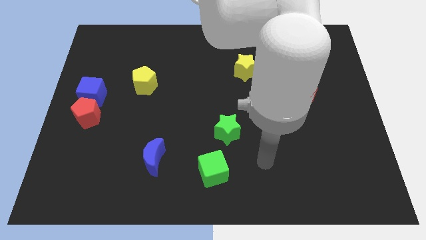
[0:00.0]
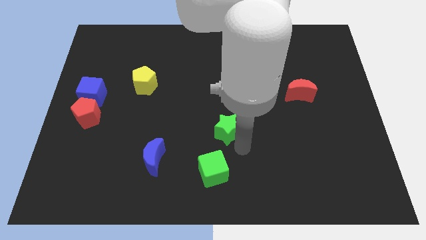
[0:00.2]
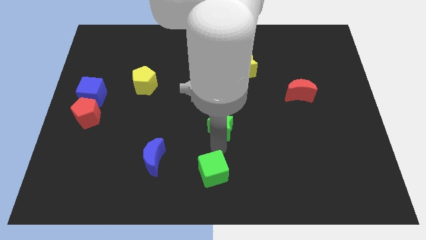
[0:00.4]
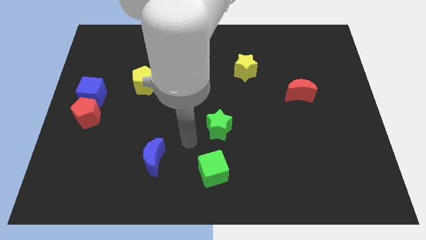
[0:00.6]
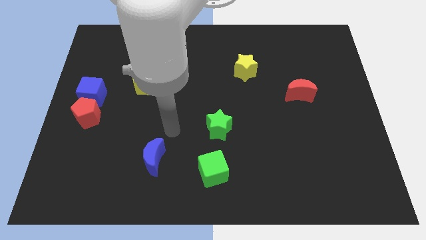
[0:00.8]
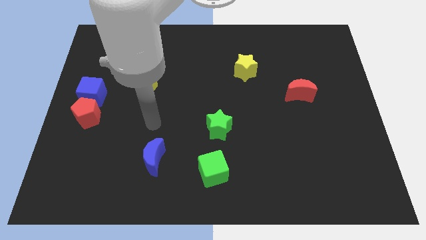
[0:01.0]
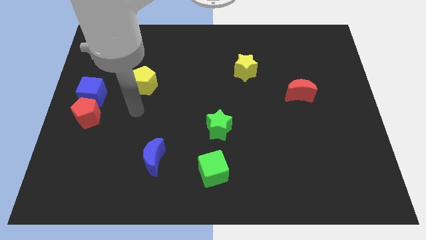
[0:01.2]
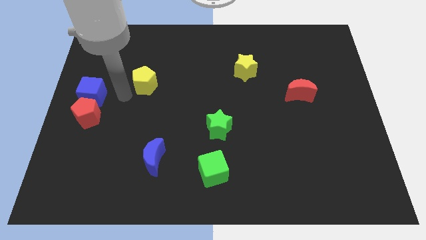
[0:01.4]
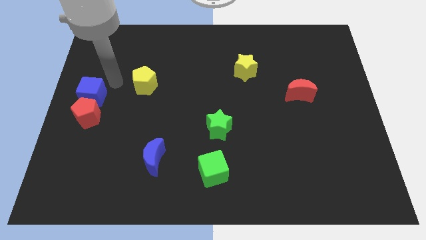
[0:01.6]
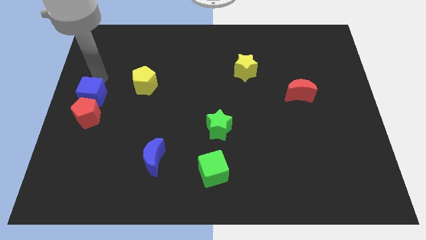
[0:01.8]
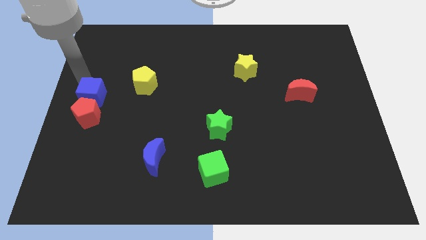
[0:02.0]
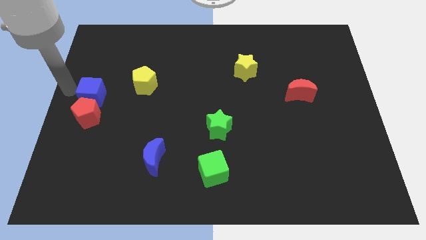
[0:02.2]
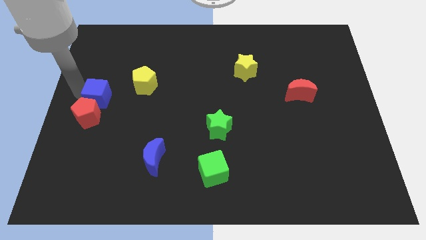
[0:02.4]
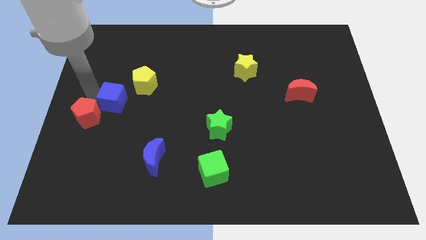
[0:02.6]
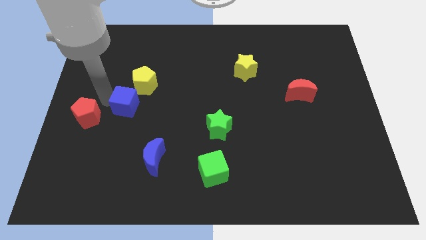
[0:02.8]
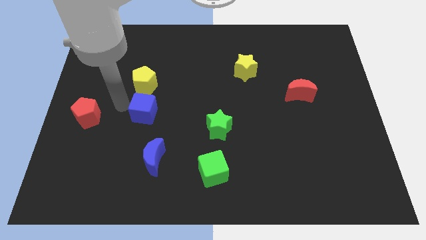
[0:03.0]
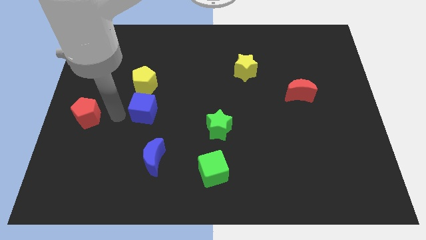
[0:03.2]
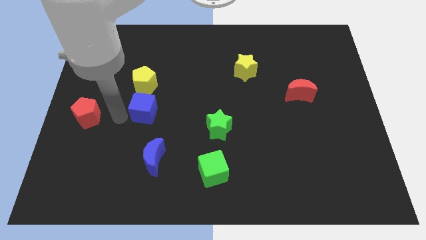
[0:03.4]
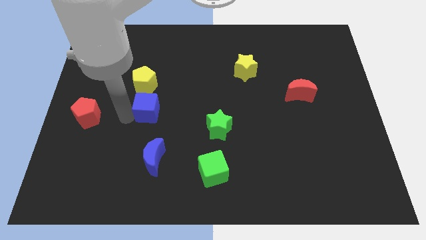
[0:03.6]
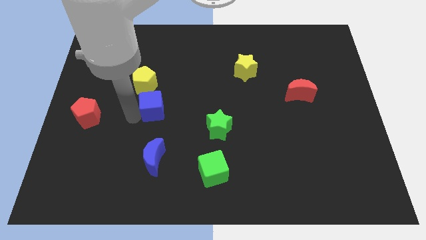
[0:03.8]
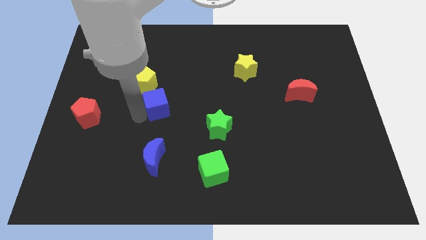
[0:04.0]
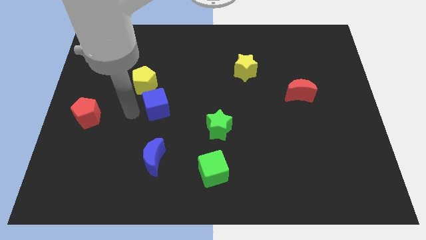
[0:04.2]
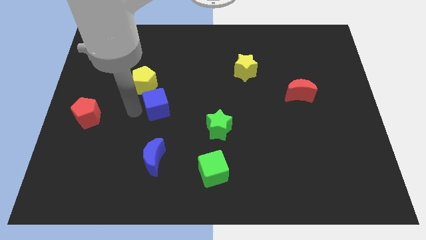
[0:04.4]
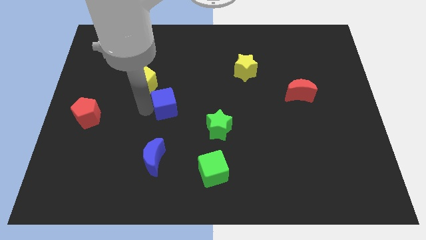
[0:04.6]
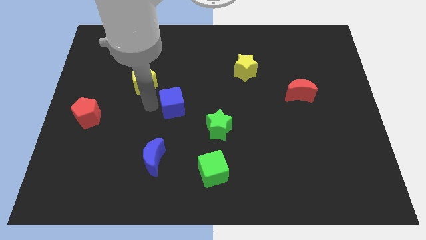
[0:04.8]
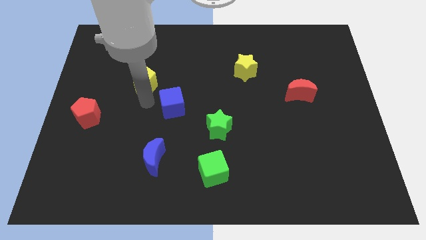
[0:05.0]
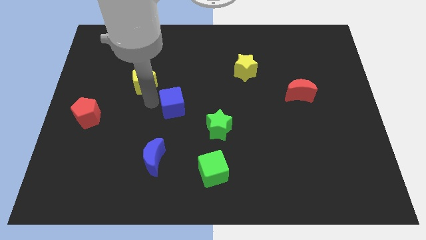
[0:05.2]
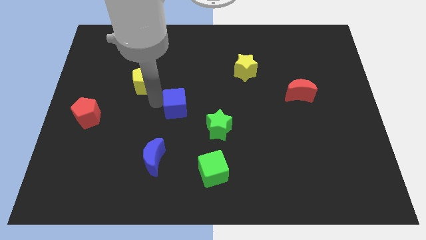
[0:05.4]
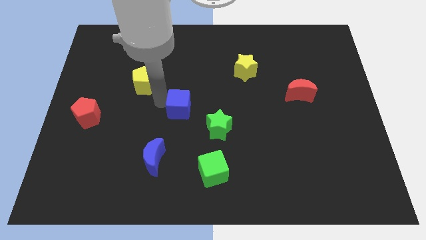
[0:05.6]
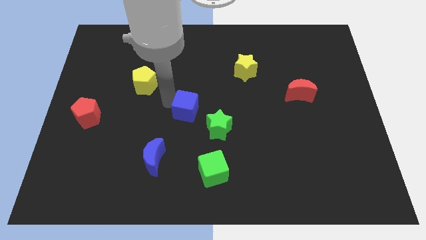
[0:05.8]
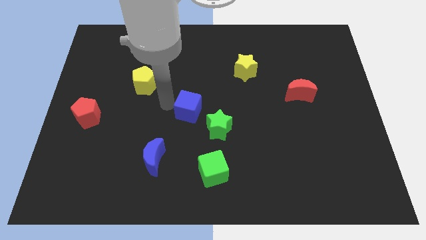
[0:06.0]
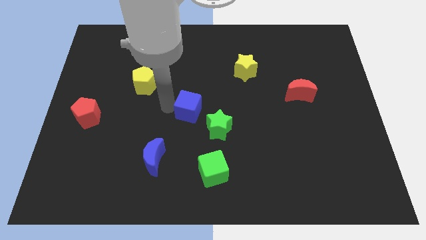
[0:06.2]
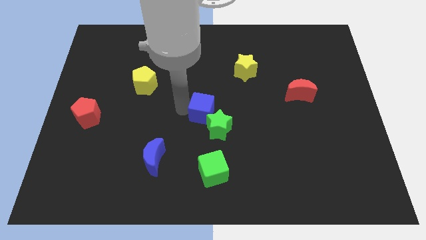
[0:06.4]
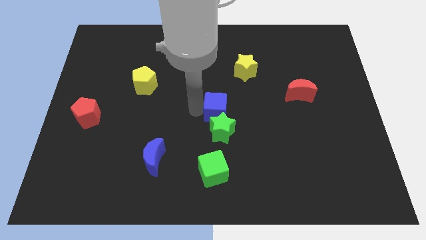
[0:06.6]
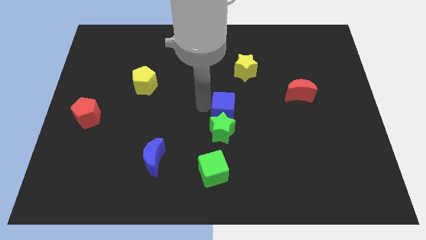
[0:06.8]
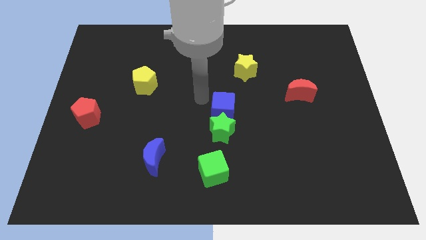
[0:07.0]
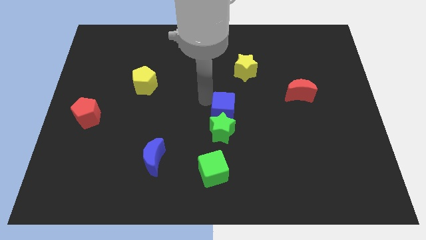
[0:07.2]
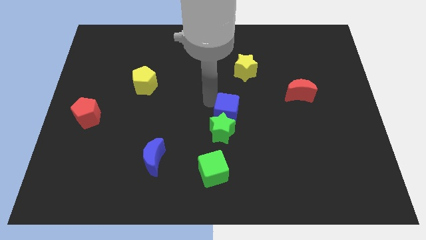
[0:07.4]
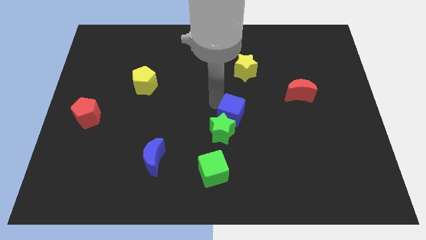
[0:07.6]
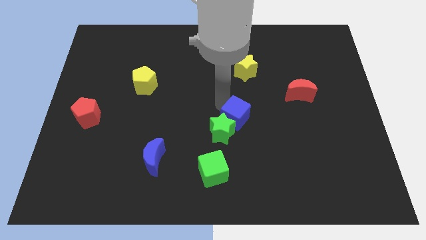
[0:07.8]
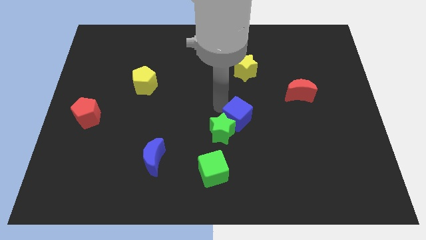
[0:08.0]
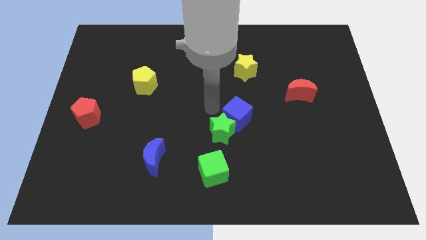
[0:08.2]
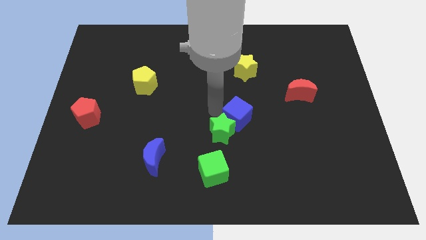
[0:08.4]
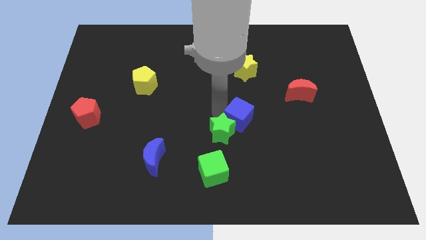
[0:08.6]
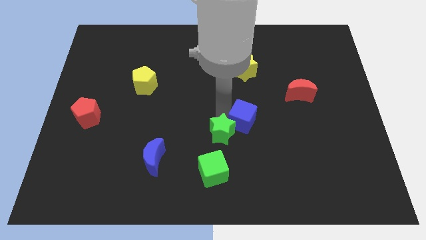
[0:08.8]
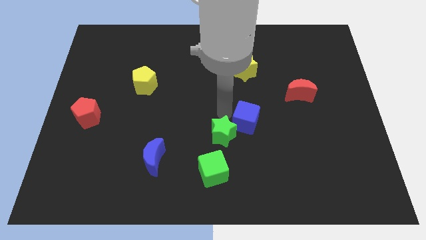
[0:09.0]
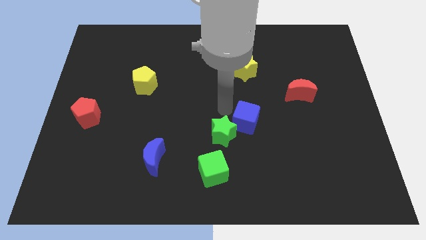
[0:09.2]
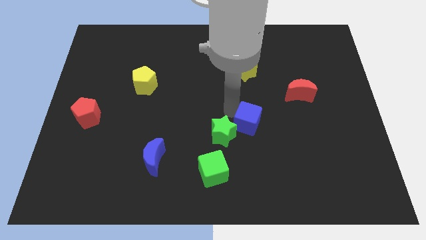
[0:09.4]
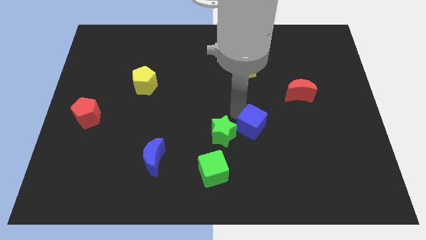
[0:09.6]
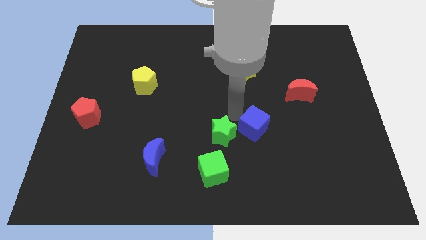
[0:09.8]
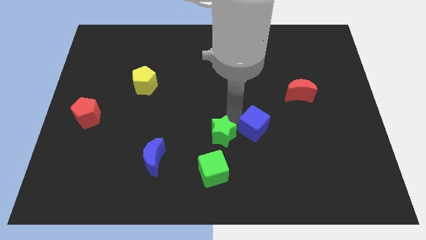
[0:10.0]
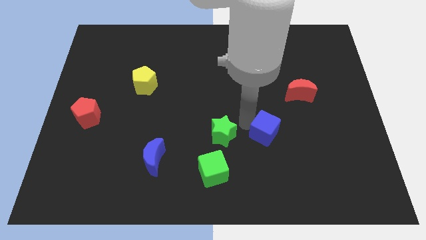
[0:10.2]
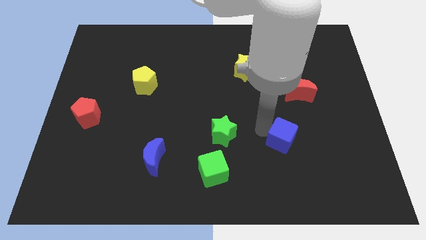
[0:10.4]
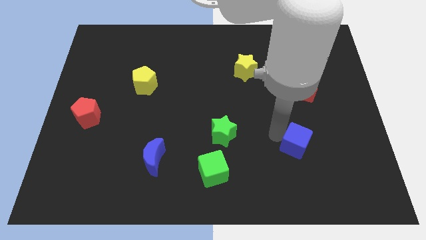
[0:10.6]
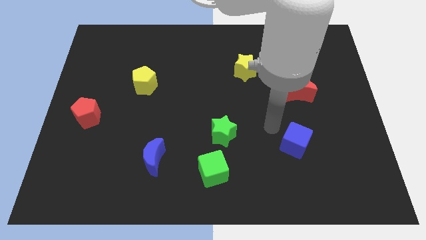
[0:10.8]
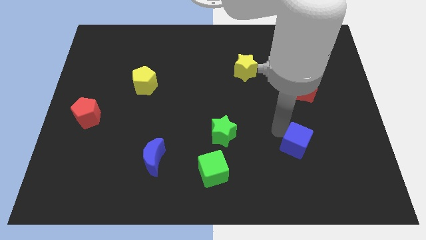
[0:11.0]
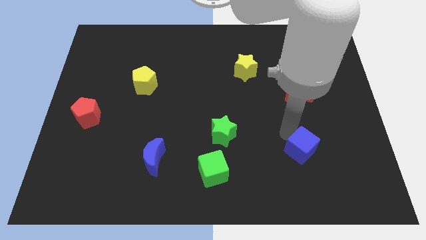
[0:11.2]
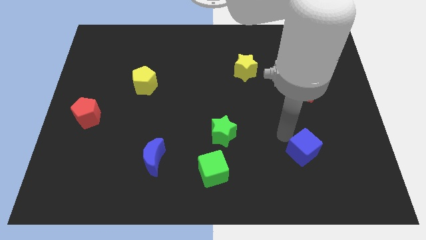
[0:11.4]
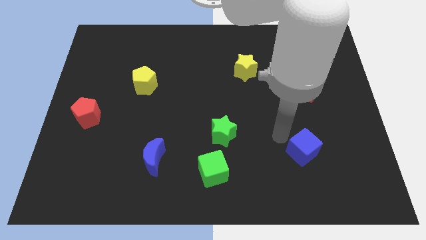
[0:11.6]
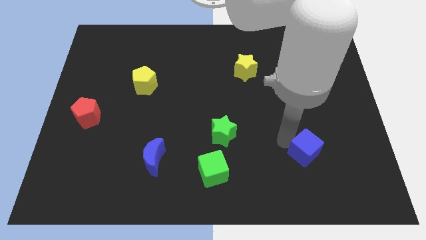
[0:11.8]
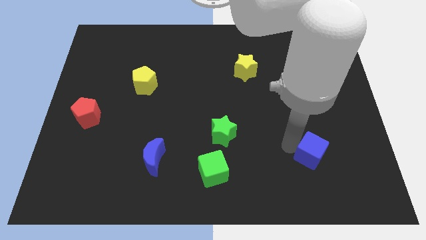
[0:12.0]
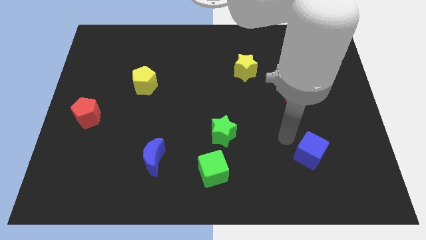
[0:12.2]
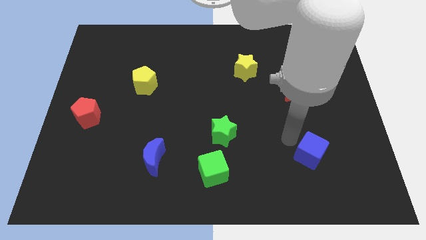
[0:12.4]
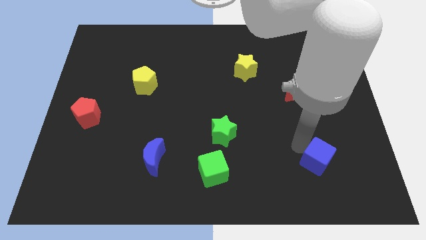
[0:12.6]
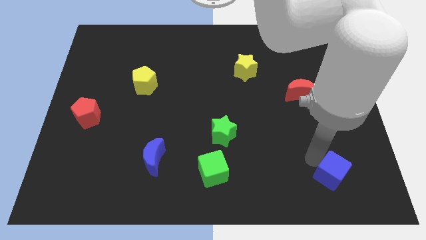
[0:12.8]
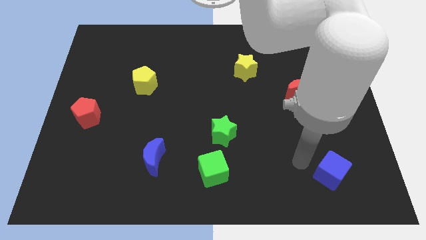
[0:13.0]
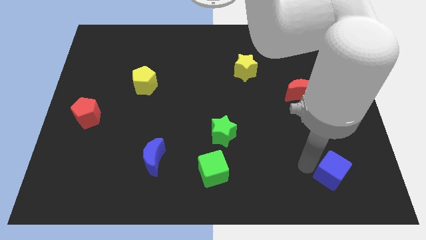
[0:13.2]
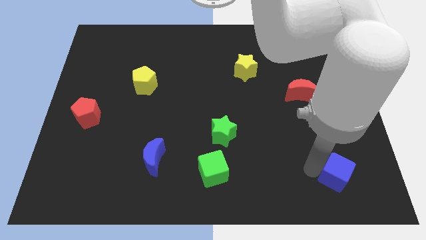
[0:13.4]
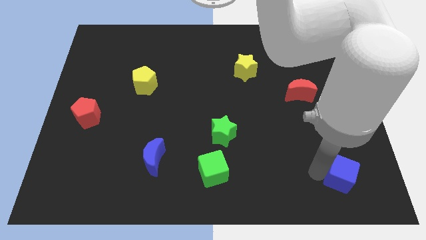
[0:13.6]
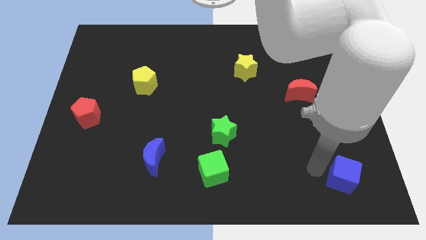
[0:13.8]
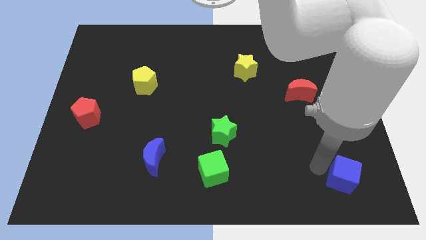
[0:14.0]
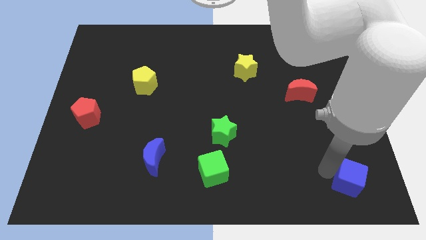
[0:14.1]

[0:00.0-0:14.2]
slide the blue cube to the bottom right
